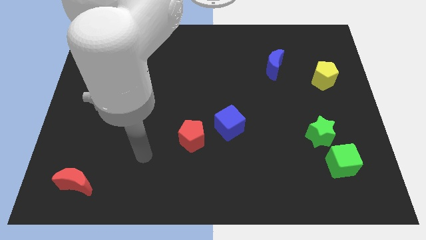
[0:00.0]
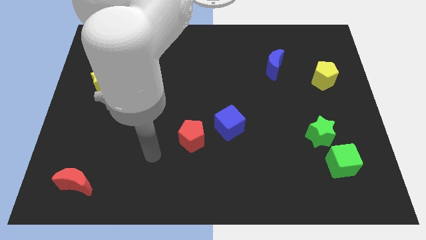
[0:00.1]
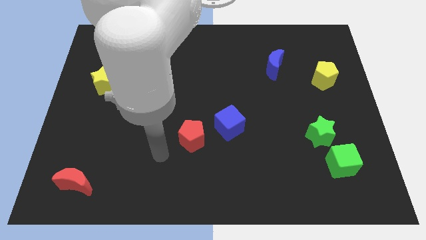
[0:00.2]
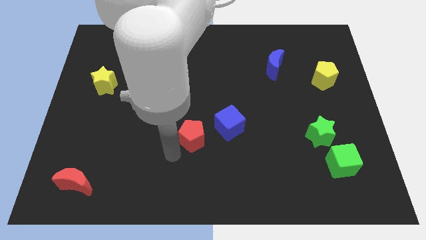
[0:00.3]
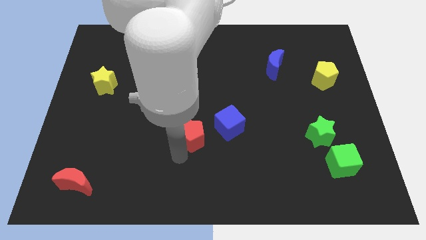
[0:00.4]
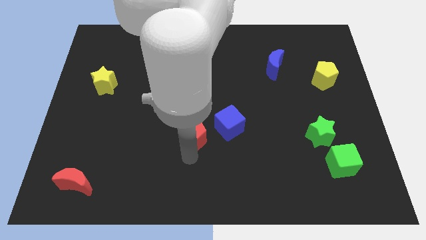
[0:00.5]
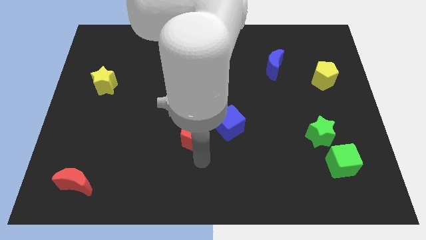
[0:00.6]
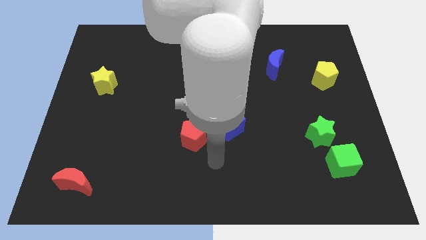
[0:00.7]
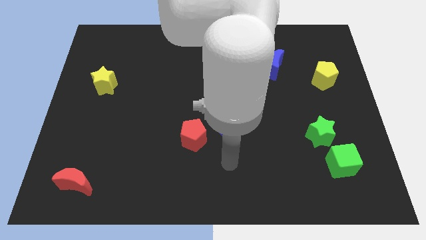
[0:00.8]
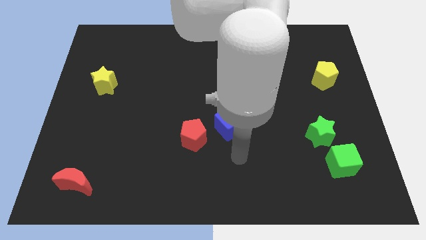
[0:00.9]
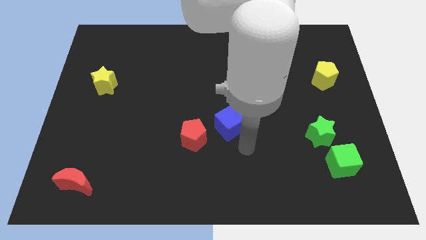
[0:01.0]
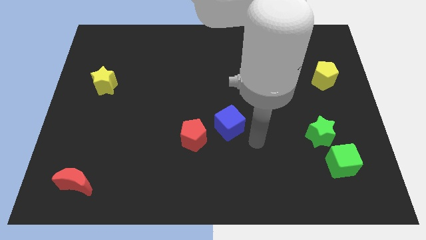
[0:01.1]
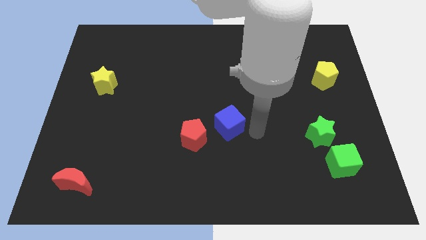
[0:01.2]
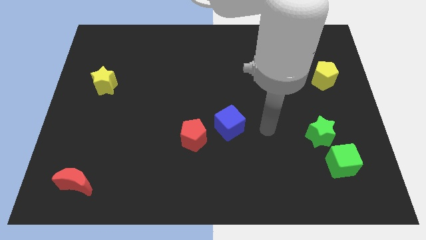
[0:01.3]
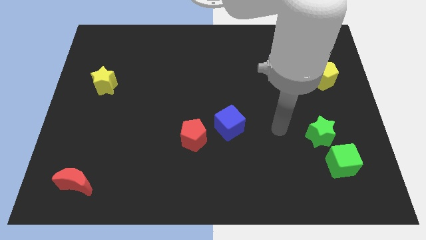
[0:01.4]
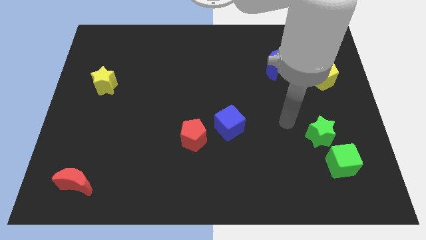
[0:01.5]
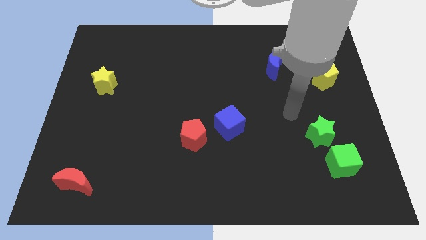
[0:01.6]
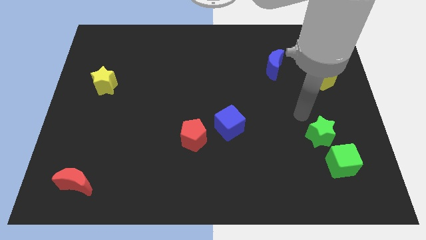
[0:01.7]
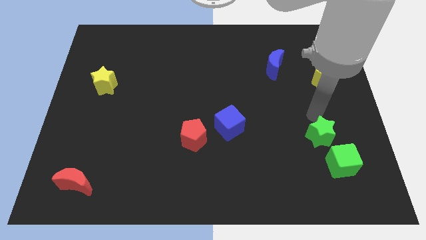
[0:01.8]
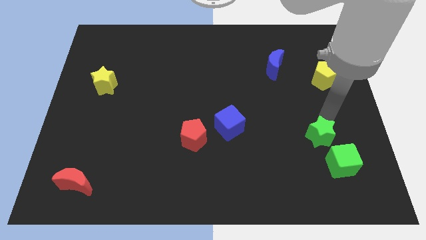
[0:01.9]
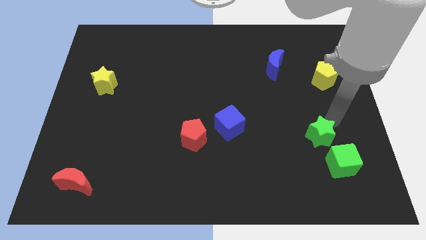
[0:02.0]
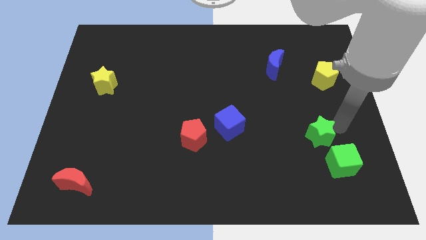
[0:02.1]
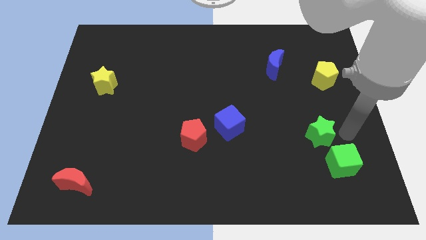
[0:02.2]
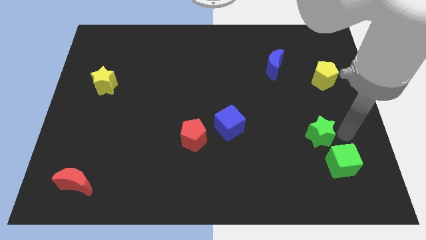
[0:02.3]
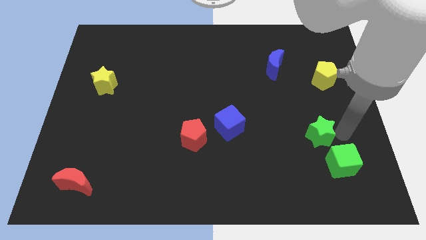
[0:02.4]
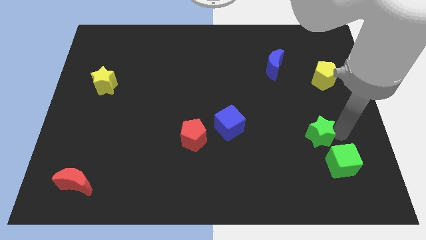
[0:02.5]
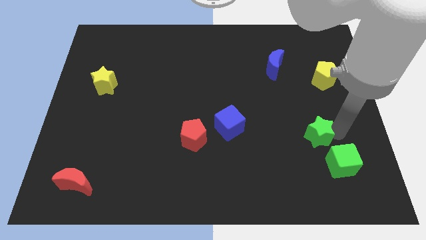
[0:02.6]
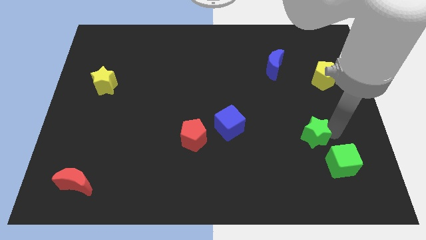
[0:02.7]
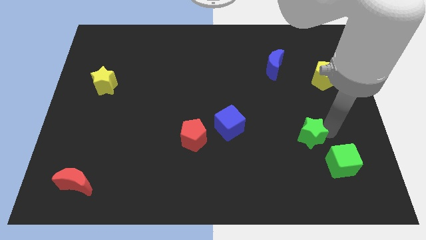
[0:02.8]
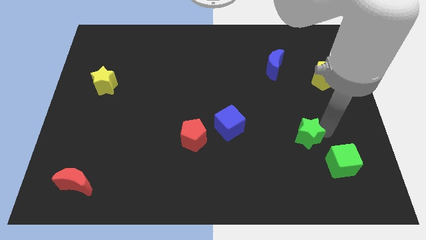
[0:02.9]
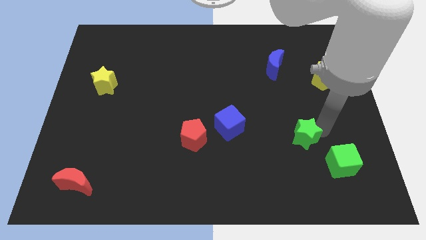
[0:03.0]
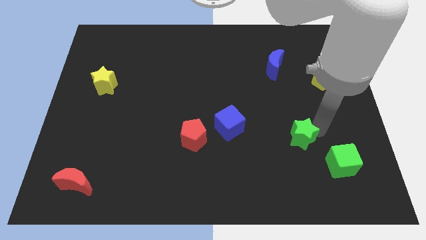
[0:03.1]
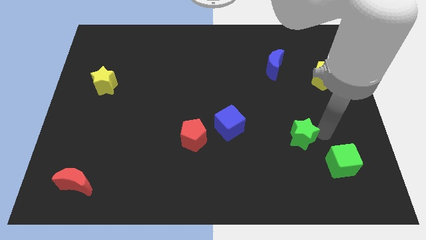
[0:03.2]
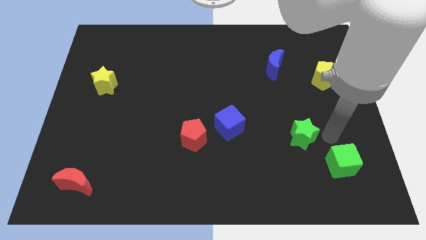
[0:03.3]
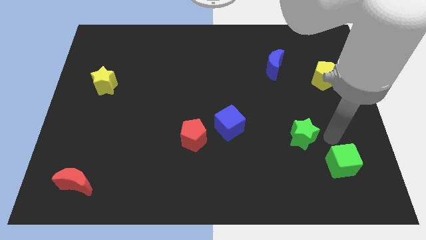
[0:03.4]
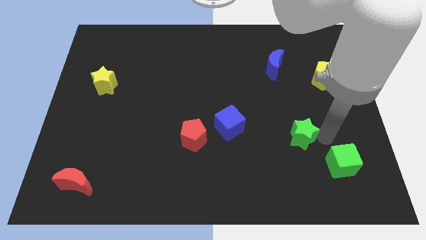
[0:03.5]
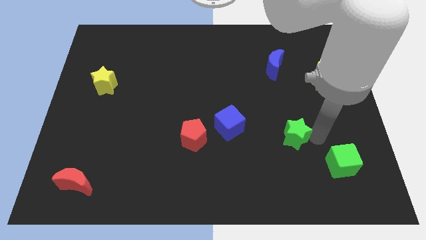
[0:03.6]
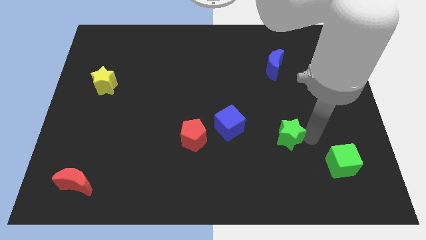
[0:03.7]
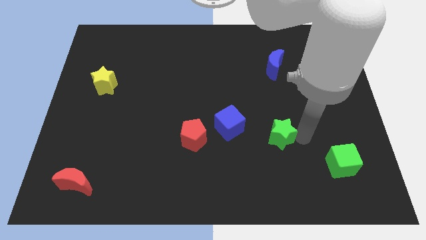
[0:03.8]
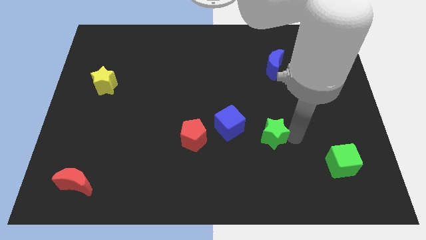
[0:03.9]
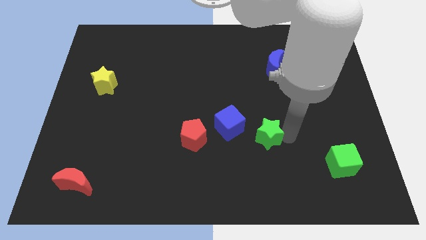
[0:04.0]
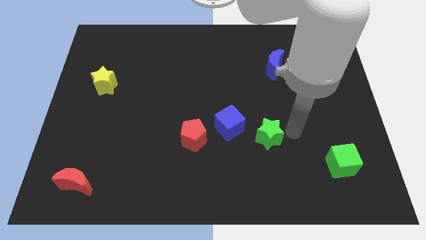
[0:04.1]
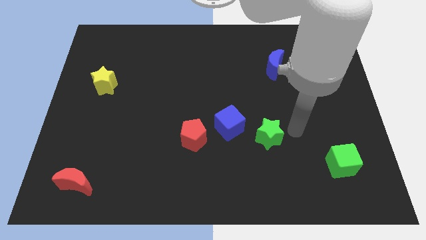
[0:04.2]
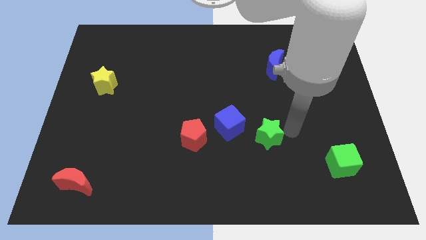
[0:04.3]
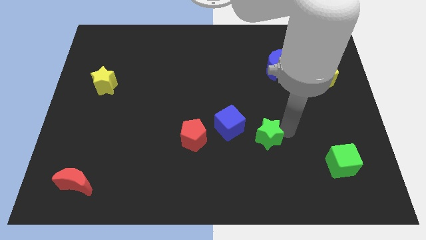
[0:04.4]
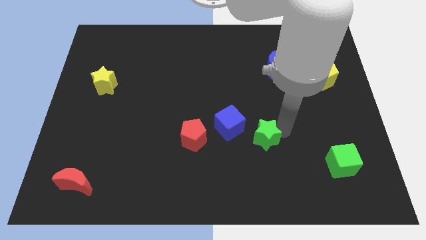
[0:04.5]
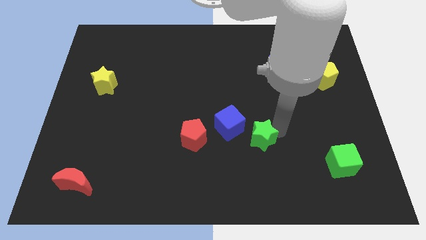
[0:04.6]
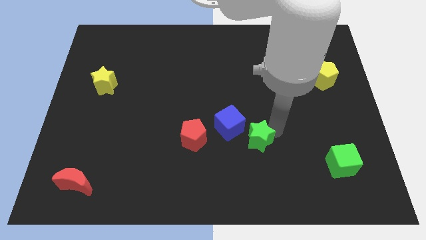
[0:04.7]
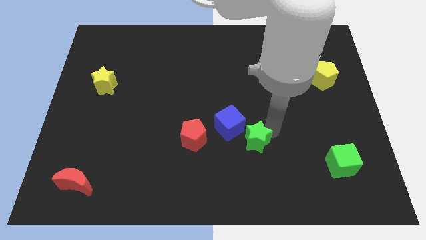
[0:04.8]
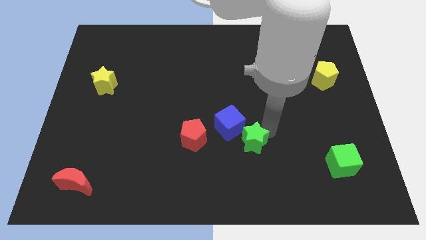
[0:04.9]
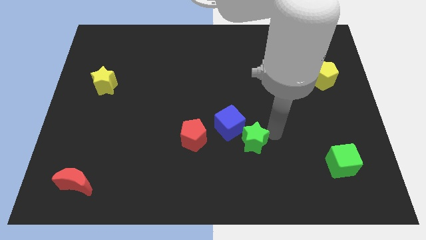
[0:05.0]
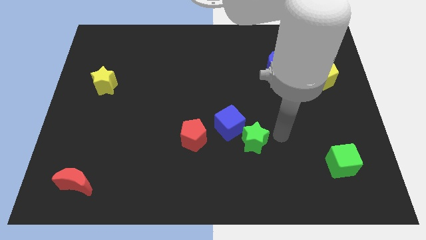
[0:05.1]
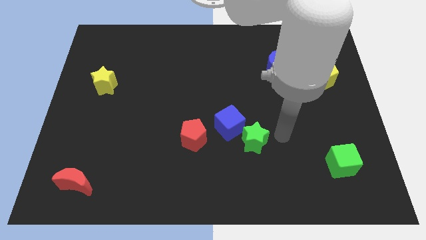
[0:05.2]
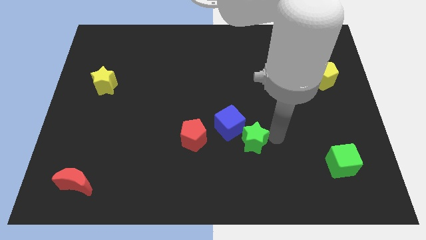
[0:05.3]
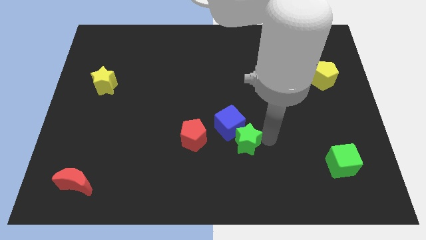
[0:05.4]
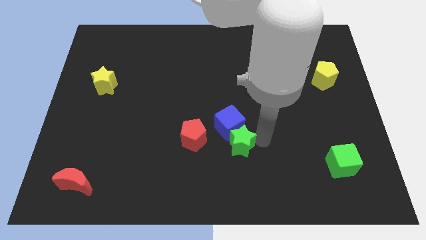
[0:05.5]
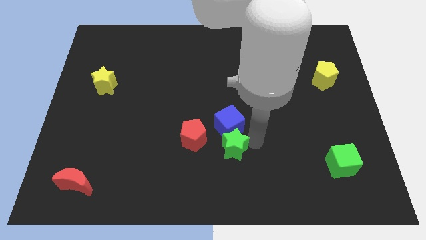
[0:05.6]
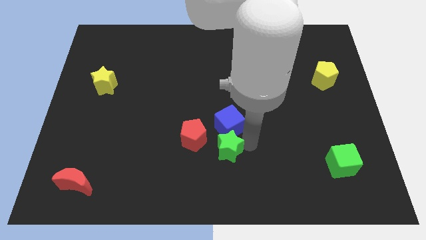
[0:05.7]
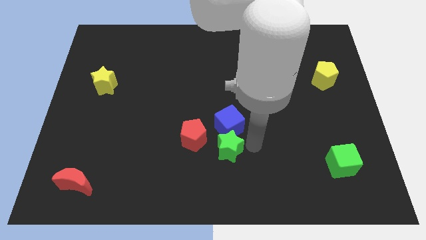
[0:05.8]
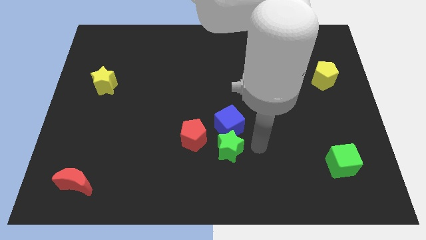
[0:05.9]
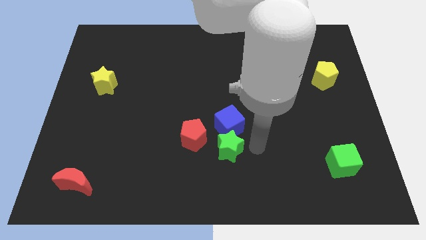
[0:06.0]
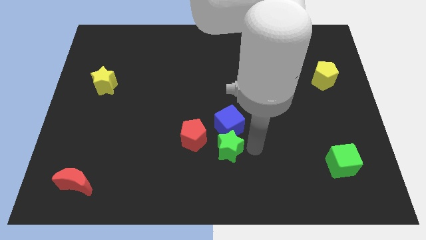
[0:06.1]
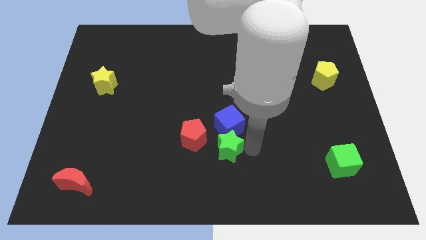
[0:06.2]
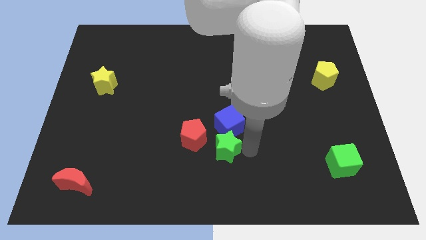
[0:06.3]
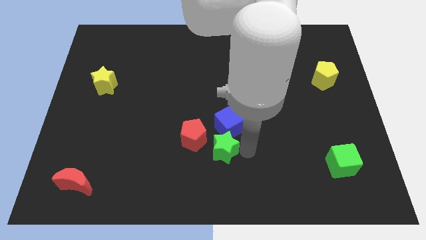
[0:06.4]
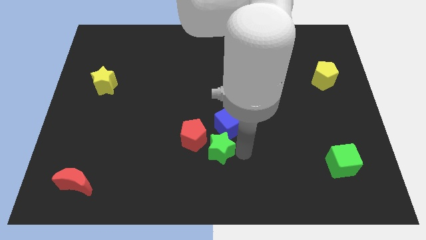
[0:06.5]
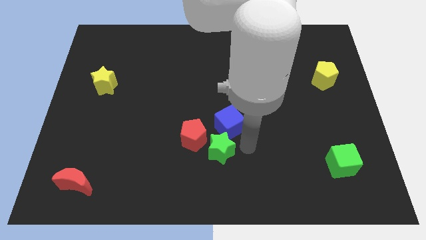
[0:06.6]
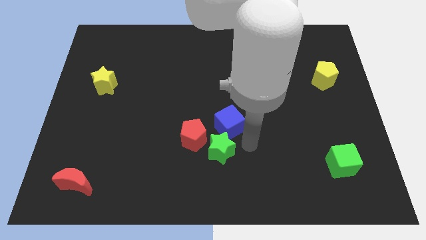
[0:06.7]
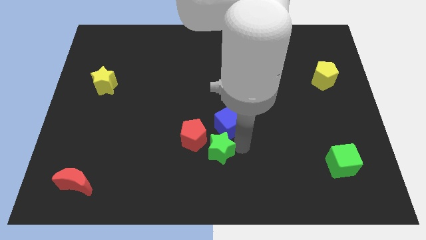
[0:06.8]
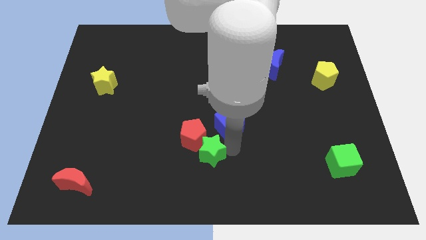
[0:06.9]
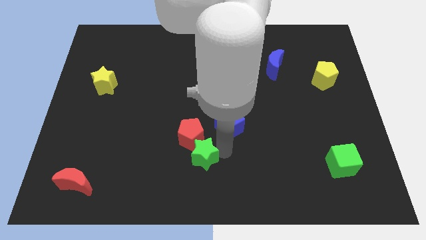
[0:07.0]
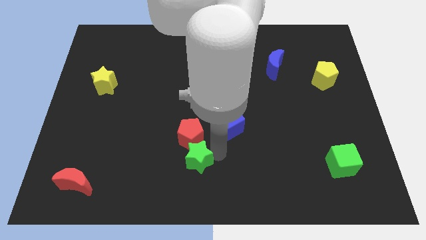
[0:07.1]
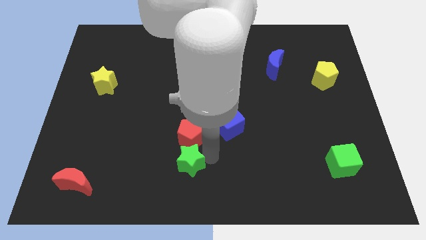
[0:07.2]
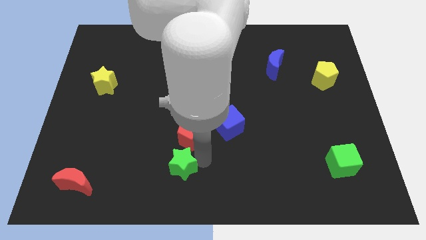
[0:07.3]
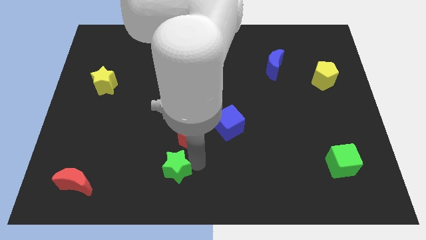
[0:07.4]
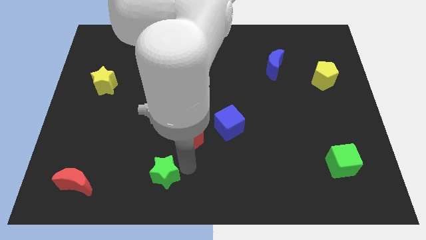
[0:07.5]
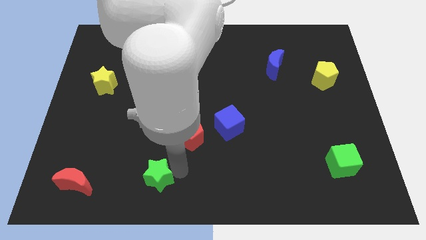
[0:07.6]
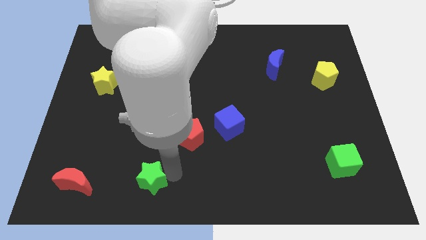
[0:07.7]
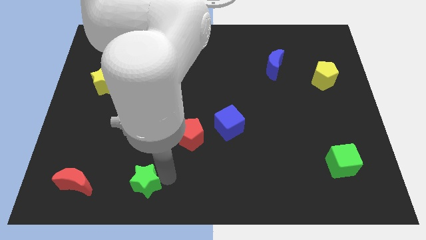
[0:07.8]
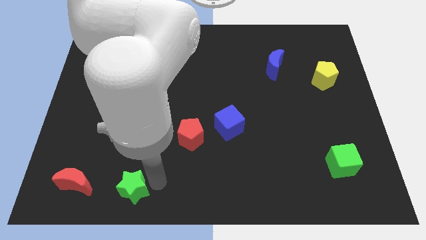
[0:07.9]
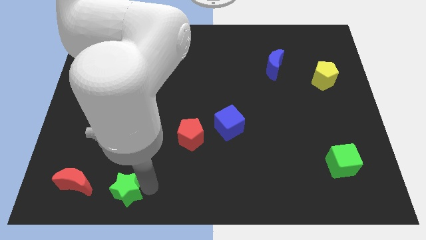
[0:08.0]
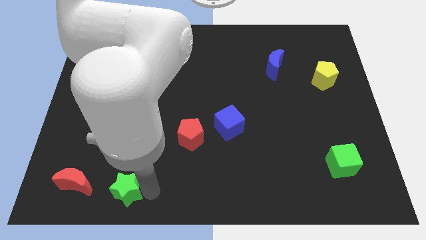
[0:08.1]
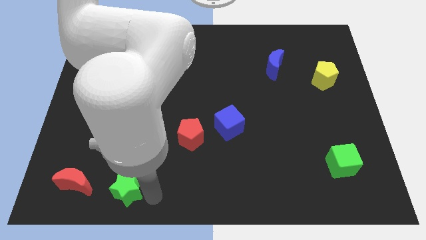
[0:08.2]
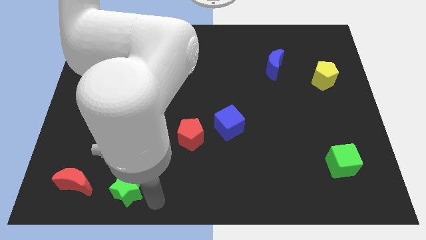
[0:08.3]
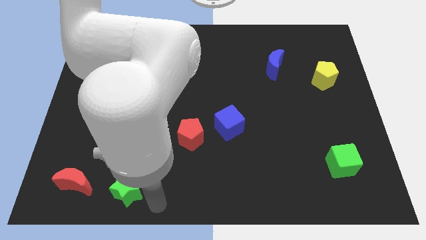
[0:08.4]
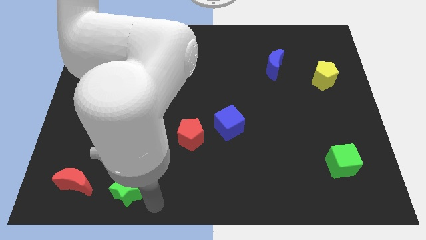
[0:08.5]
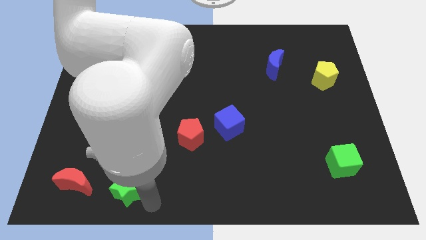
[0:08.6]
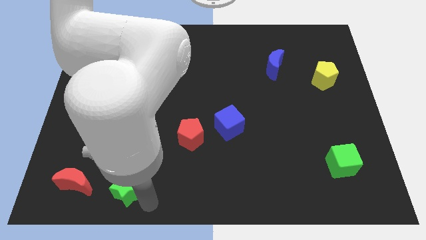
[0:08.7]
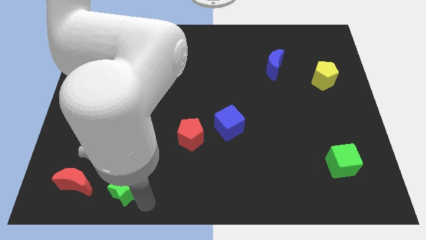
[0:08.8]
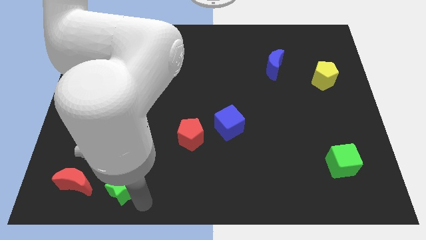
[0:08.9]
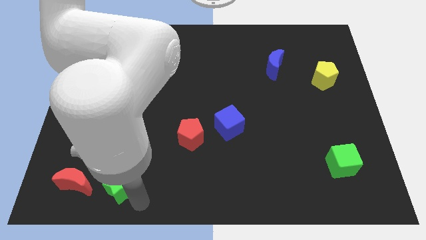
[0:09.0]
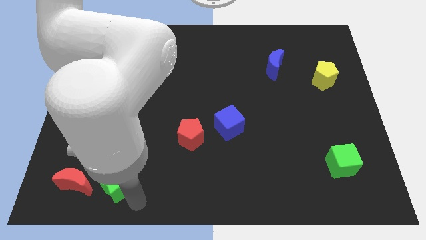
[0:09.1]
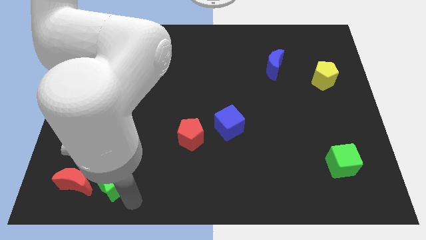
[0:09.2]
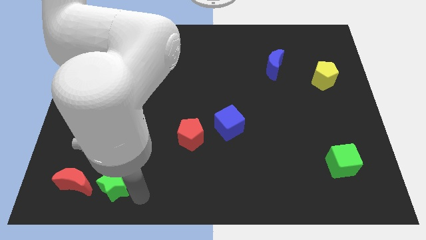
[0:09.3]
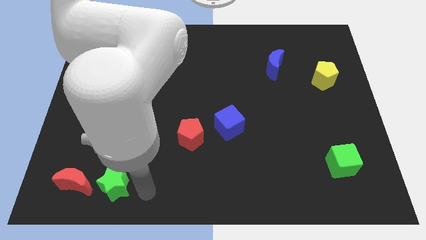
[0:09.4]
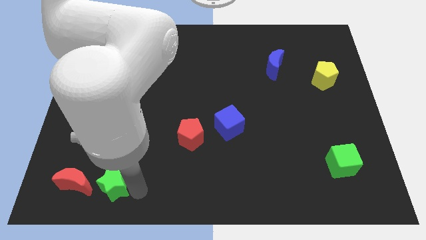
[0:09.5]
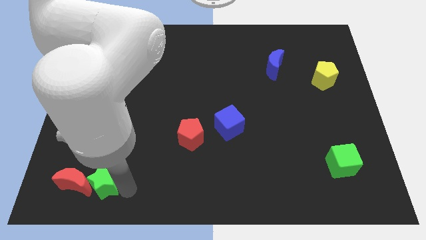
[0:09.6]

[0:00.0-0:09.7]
put the green star to the red moon
